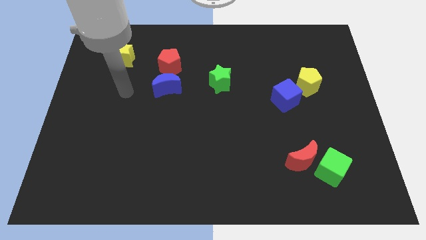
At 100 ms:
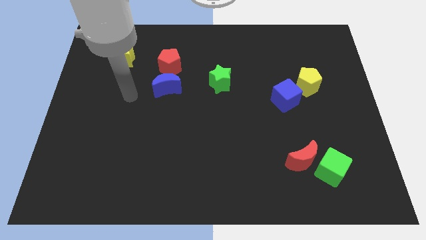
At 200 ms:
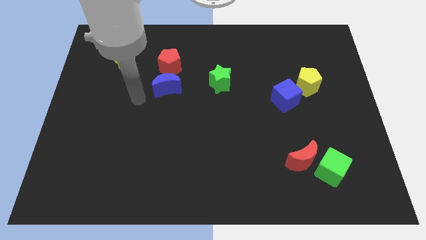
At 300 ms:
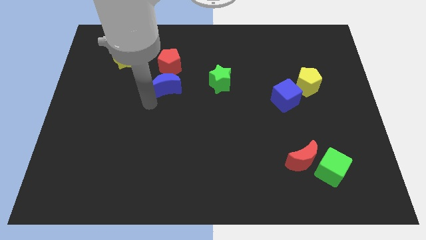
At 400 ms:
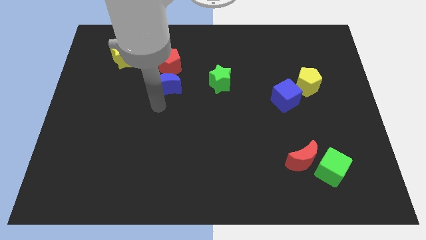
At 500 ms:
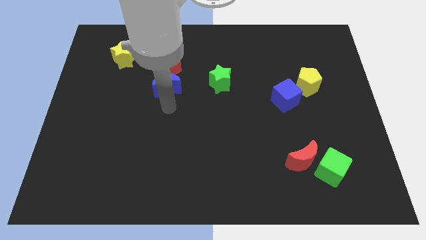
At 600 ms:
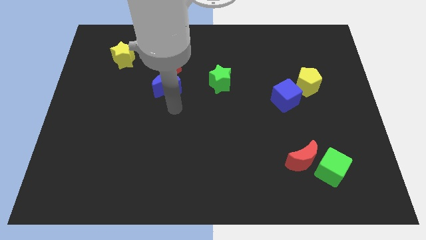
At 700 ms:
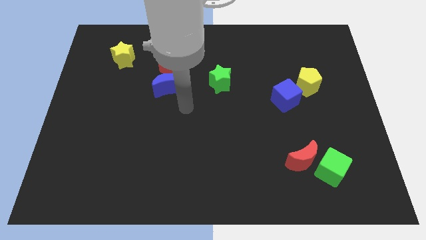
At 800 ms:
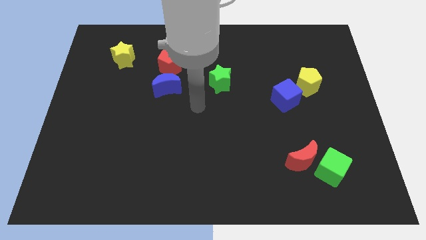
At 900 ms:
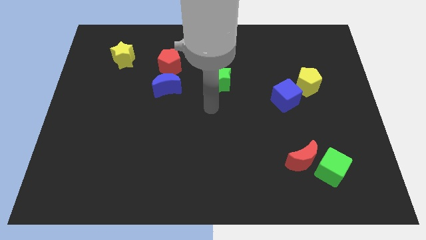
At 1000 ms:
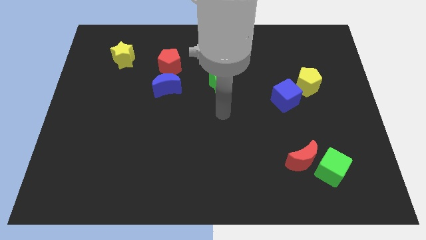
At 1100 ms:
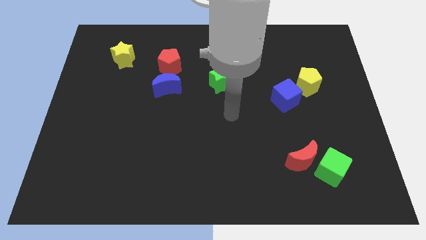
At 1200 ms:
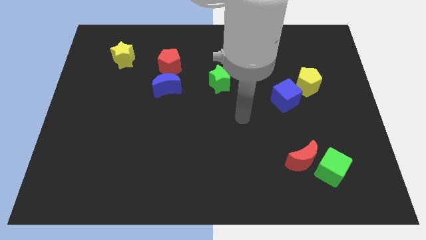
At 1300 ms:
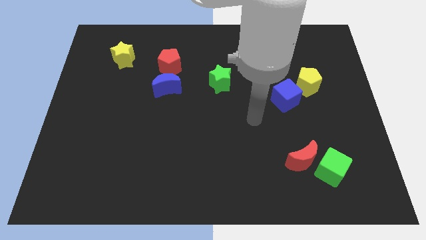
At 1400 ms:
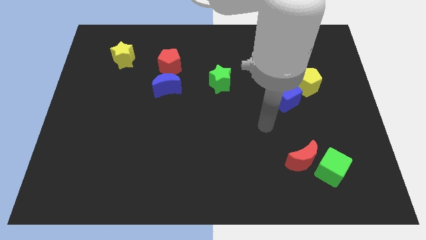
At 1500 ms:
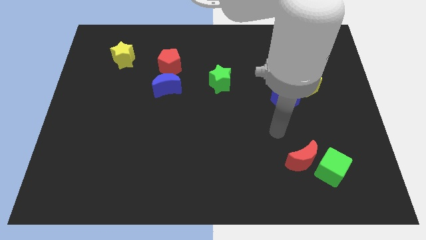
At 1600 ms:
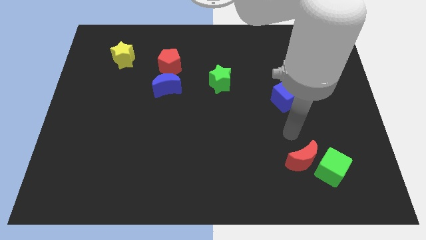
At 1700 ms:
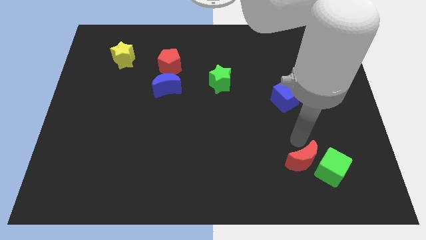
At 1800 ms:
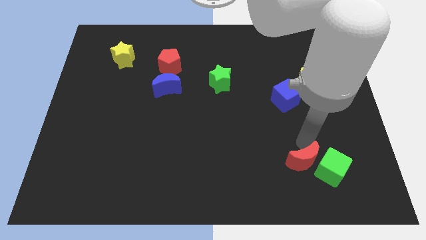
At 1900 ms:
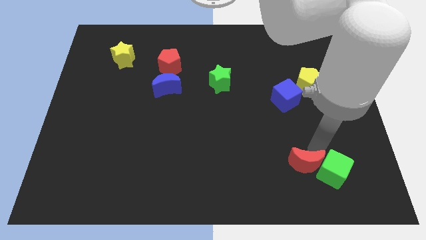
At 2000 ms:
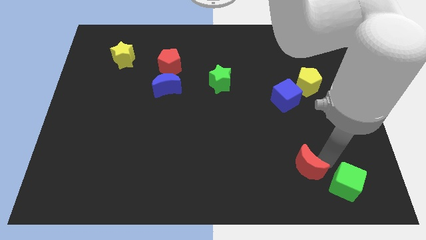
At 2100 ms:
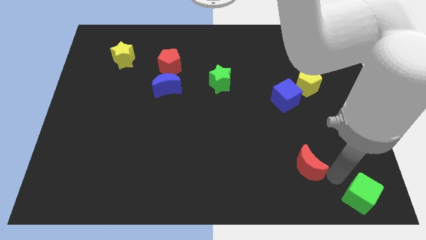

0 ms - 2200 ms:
separate the red moon from the green cube

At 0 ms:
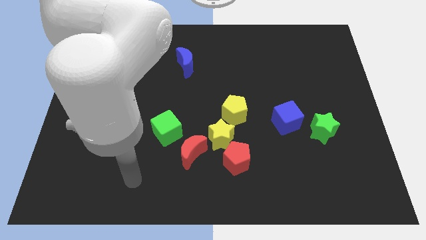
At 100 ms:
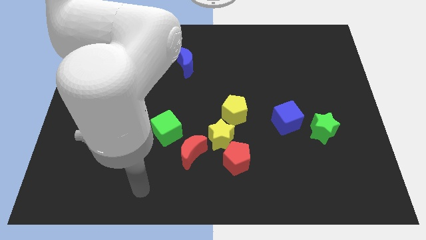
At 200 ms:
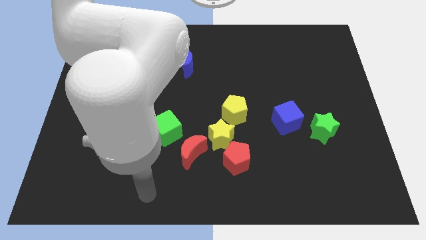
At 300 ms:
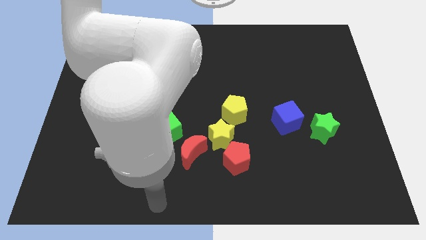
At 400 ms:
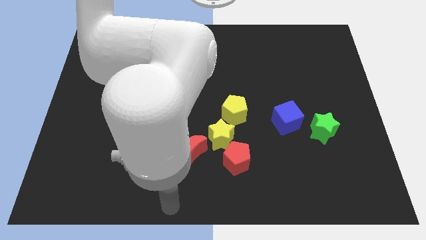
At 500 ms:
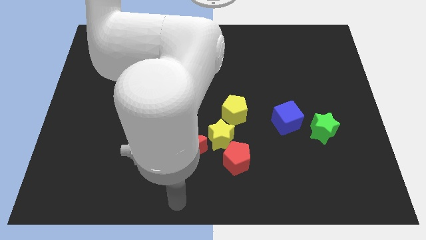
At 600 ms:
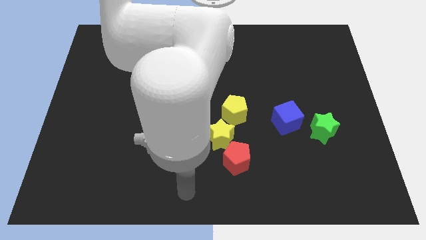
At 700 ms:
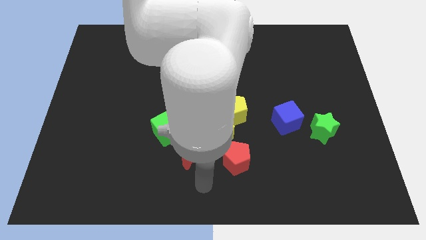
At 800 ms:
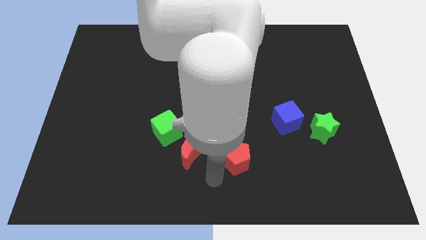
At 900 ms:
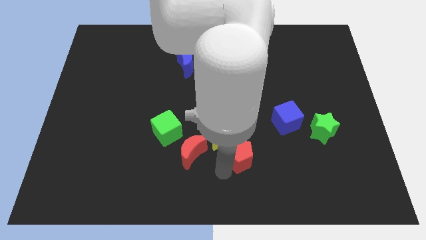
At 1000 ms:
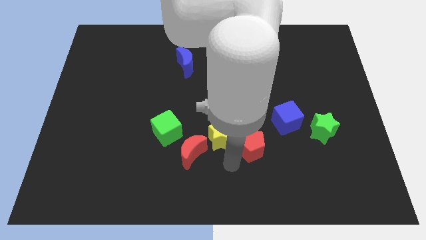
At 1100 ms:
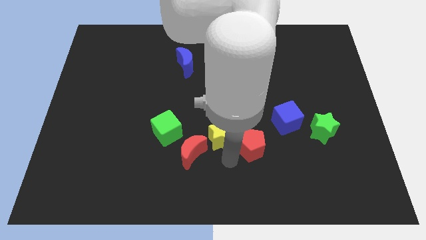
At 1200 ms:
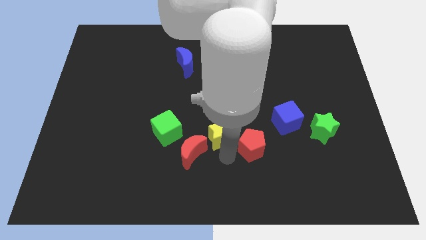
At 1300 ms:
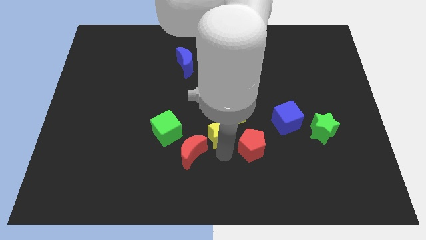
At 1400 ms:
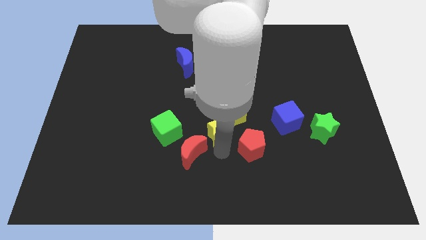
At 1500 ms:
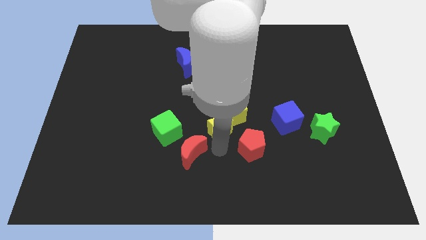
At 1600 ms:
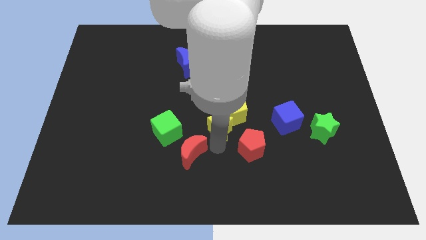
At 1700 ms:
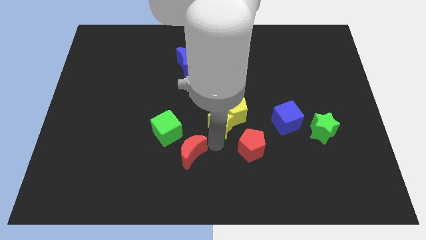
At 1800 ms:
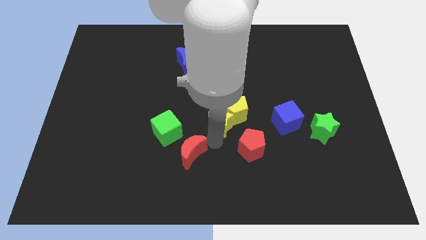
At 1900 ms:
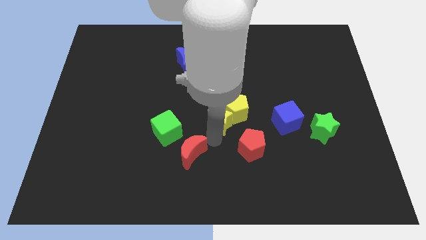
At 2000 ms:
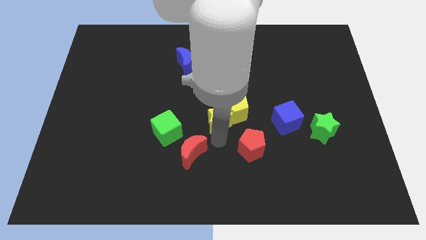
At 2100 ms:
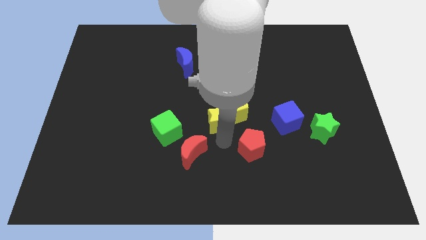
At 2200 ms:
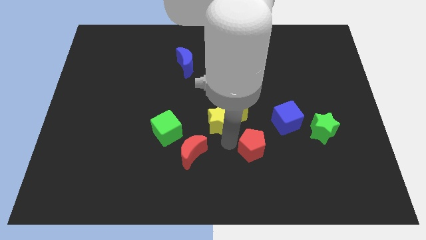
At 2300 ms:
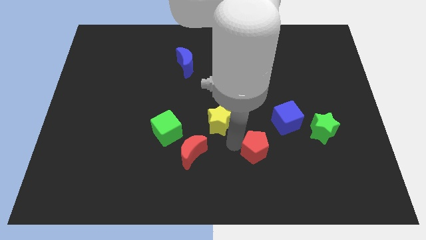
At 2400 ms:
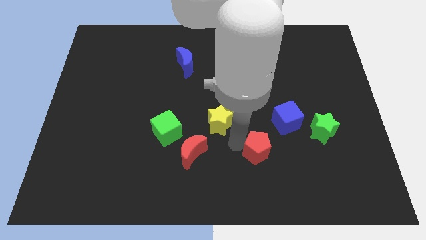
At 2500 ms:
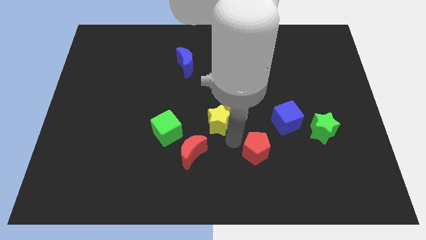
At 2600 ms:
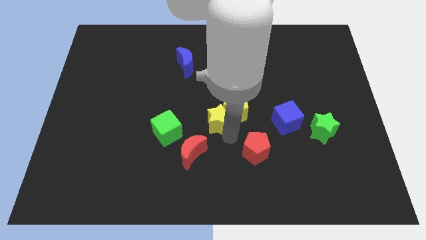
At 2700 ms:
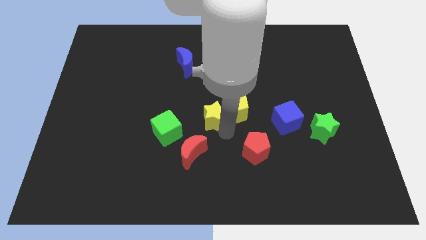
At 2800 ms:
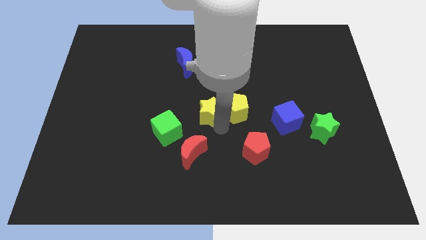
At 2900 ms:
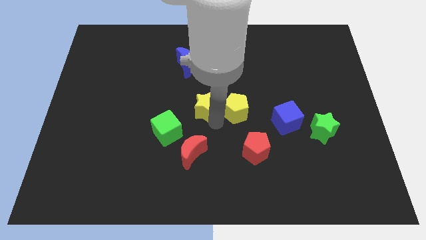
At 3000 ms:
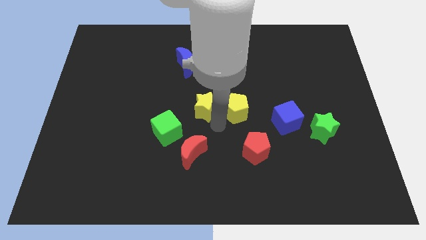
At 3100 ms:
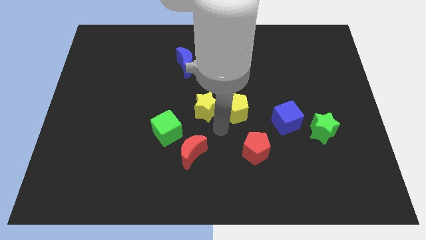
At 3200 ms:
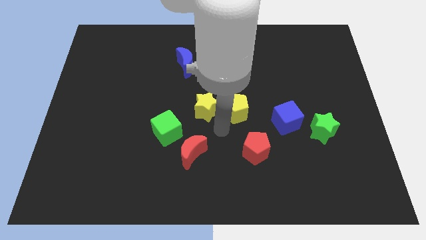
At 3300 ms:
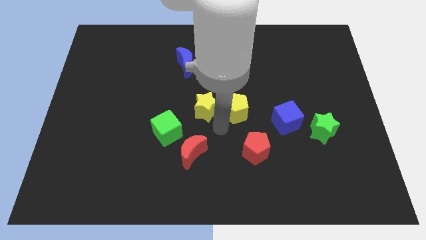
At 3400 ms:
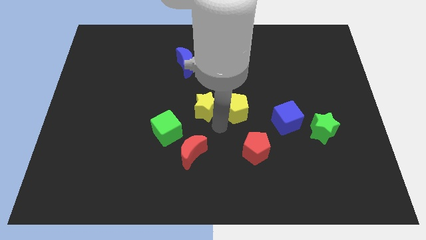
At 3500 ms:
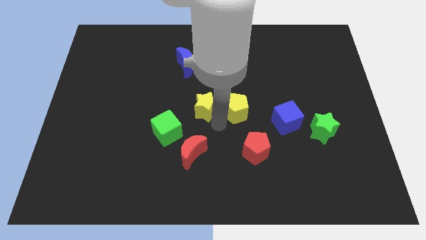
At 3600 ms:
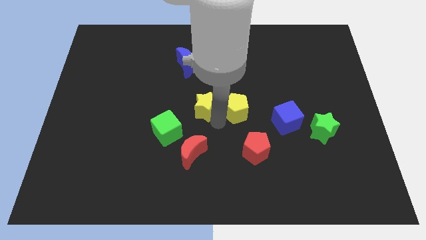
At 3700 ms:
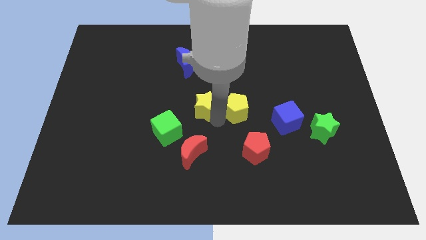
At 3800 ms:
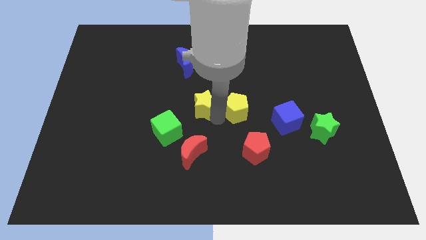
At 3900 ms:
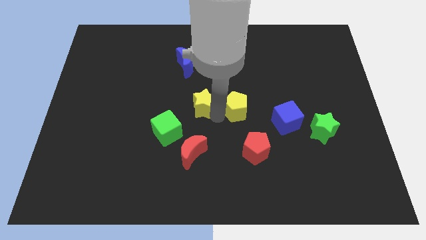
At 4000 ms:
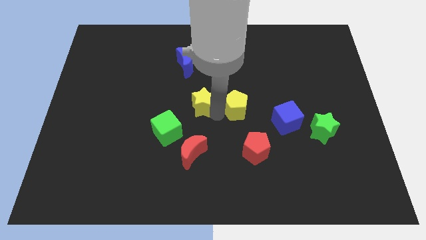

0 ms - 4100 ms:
move the yellow star away from the clump

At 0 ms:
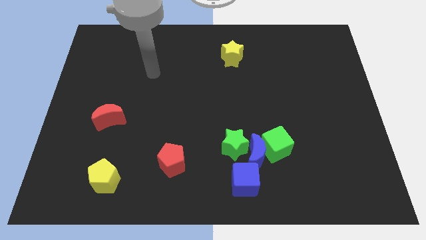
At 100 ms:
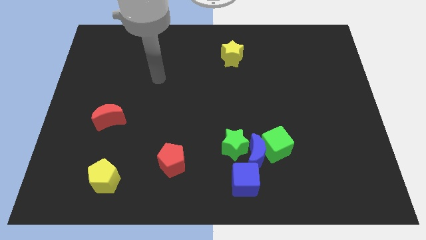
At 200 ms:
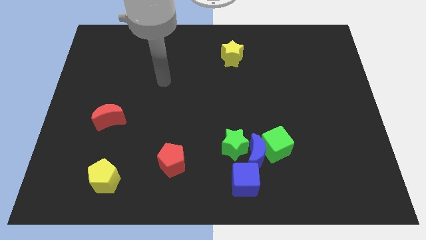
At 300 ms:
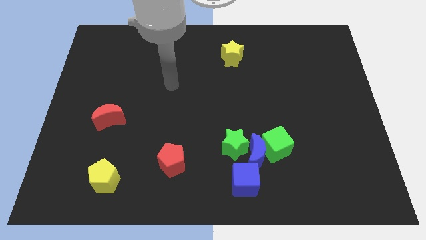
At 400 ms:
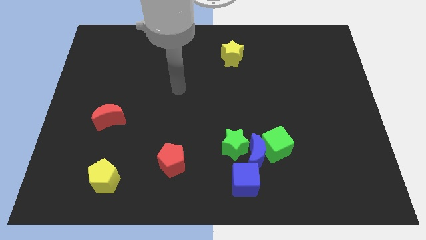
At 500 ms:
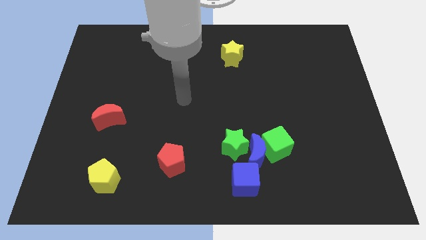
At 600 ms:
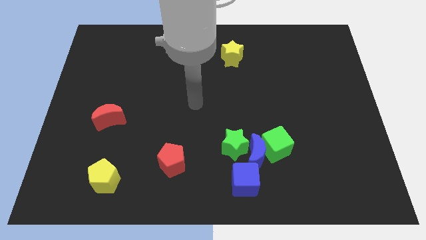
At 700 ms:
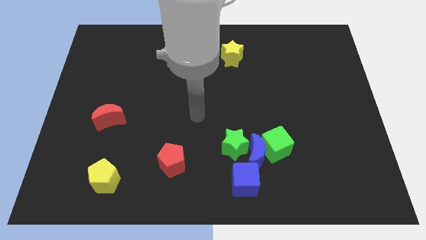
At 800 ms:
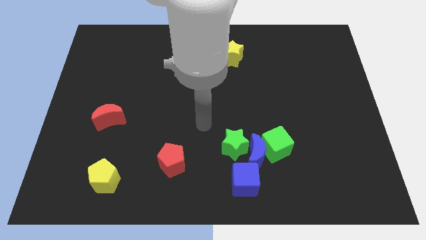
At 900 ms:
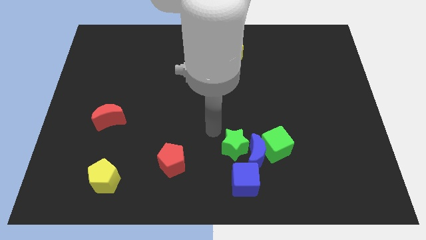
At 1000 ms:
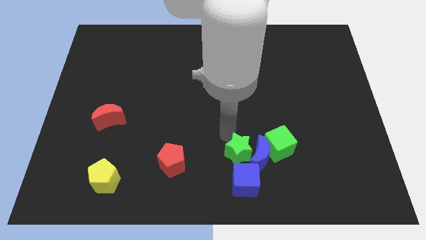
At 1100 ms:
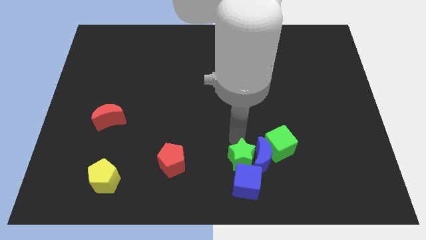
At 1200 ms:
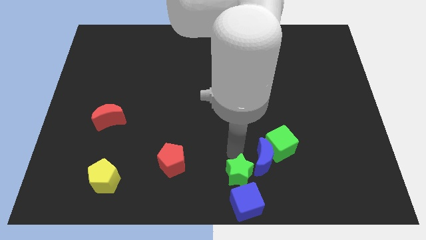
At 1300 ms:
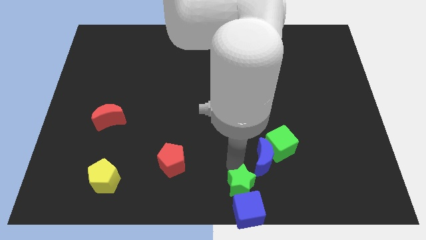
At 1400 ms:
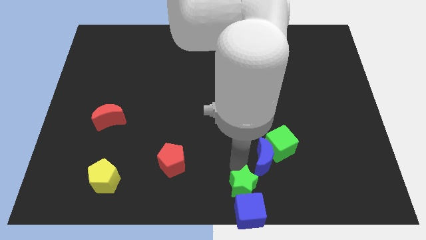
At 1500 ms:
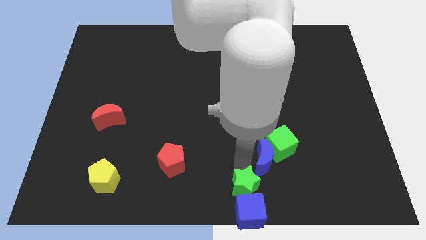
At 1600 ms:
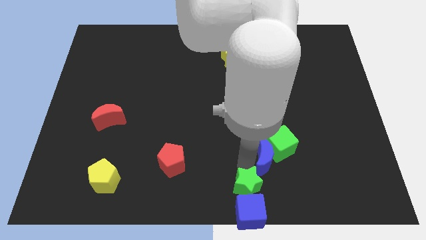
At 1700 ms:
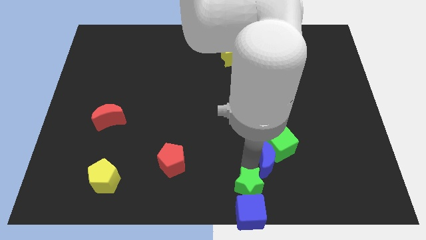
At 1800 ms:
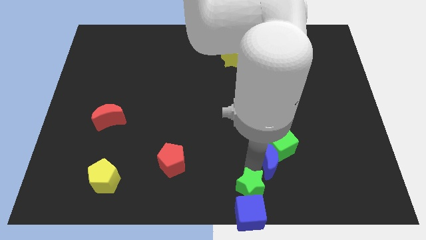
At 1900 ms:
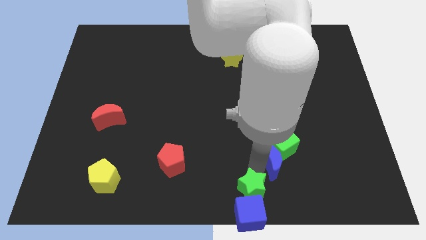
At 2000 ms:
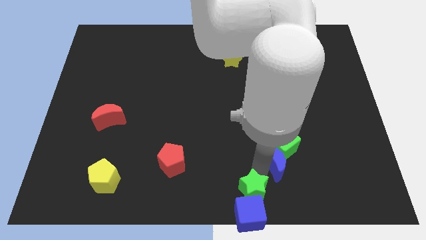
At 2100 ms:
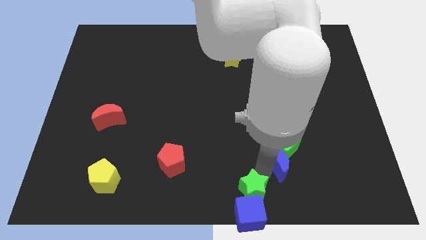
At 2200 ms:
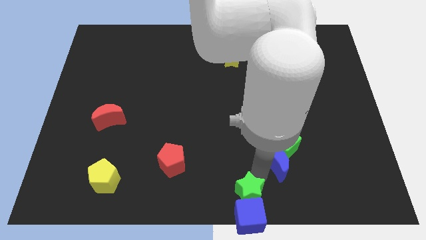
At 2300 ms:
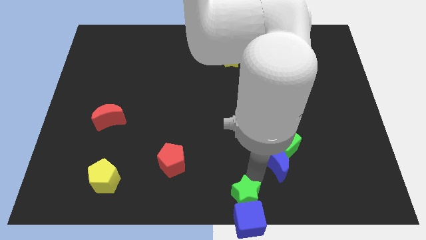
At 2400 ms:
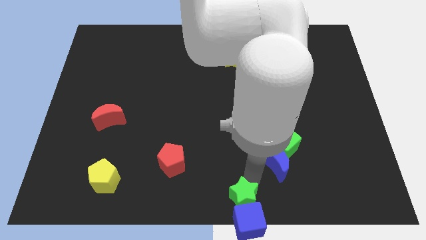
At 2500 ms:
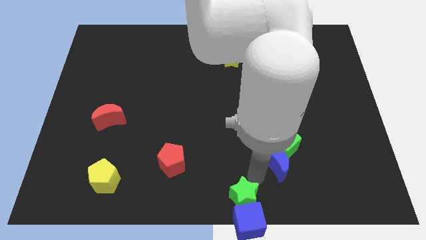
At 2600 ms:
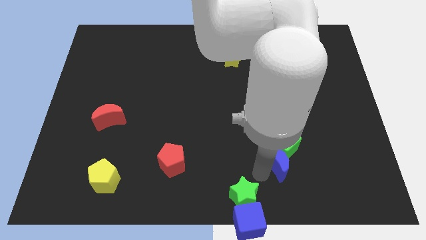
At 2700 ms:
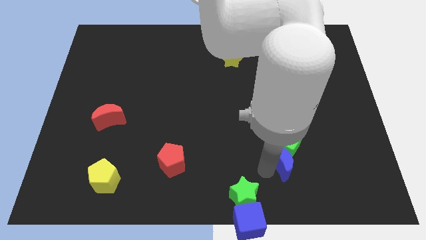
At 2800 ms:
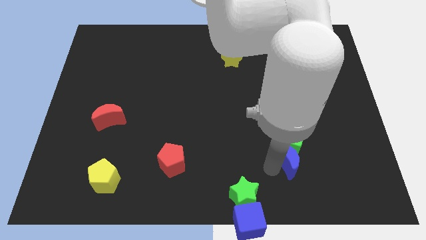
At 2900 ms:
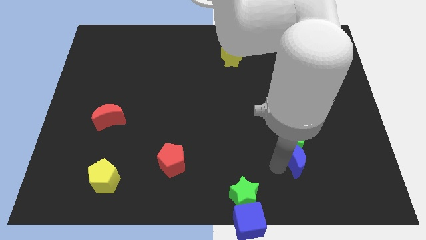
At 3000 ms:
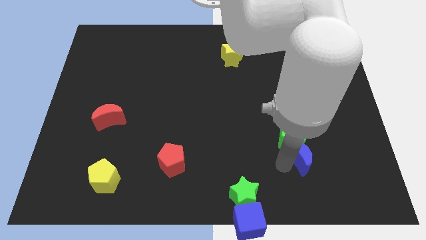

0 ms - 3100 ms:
separate the blue moon from the green cube, green star, and blue cube
